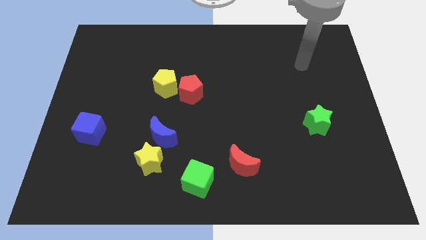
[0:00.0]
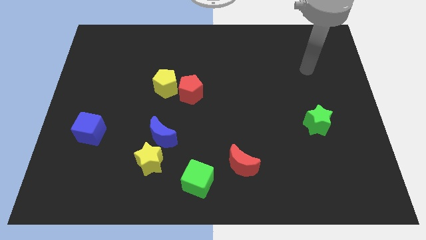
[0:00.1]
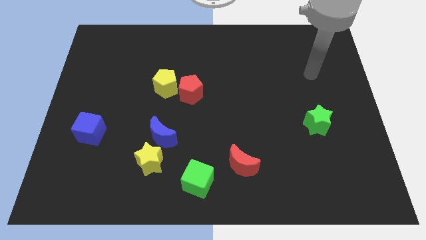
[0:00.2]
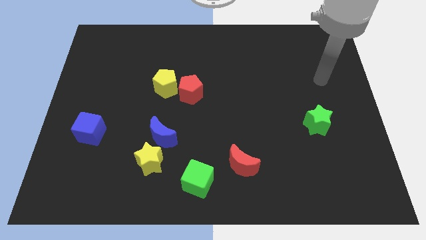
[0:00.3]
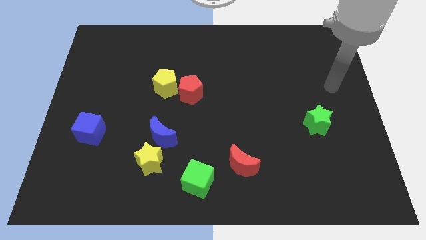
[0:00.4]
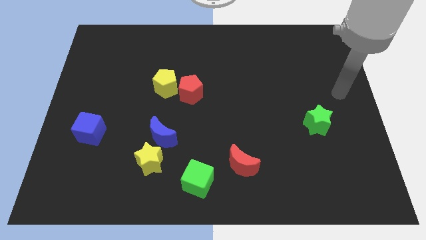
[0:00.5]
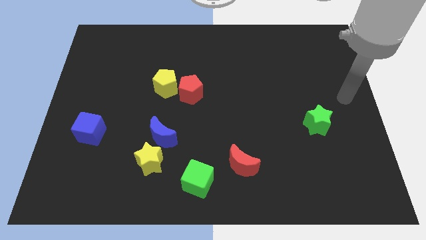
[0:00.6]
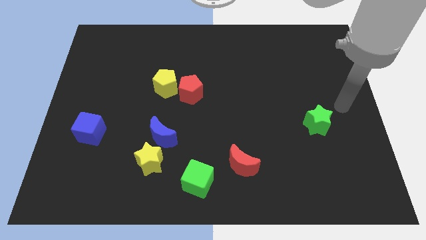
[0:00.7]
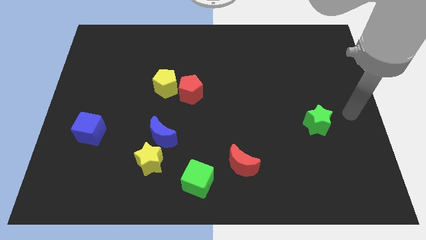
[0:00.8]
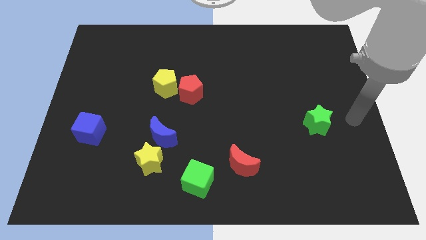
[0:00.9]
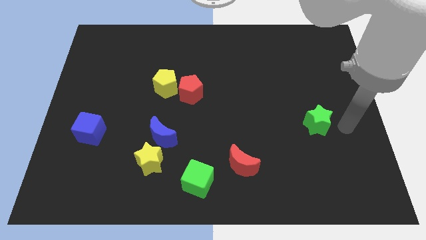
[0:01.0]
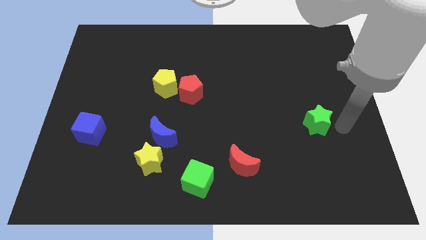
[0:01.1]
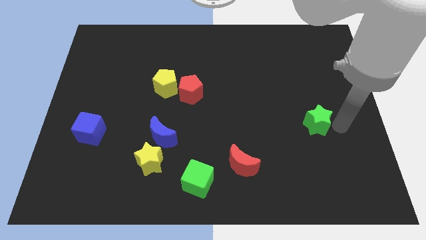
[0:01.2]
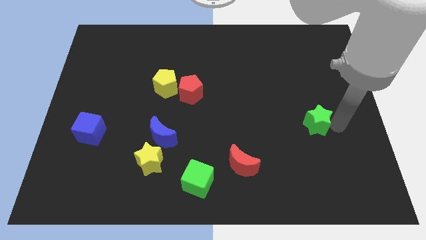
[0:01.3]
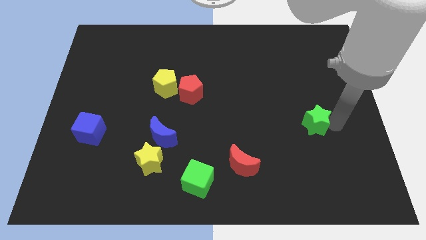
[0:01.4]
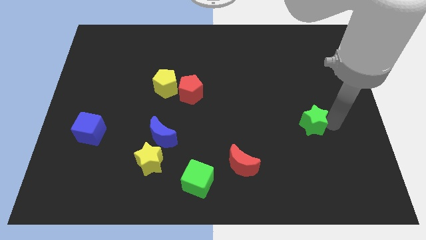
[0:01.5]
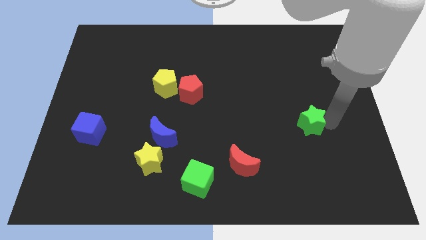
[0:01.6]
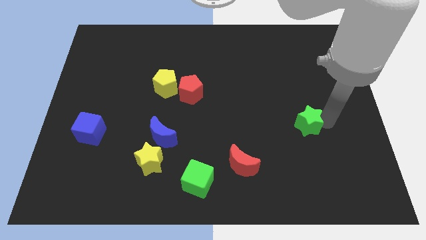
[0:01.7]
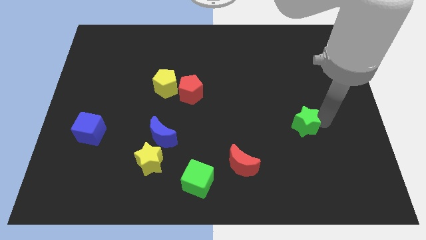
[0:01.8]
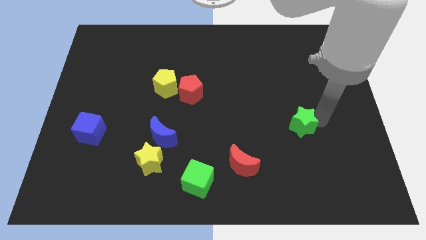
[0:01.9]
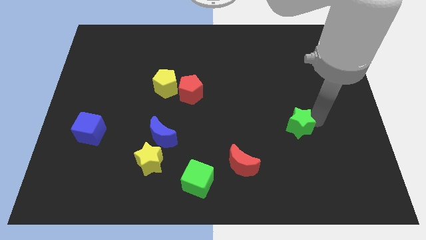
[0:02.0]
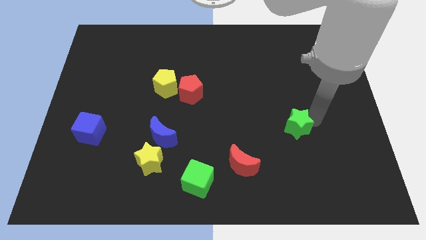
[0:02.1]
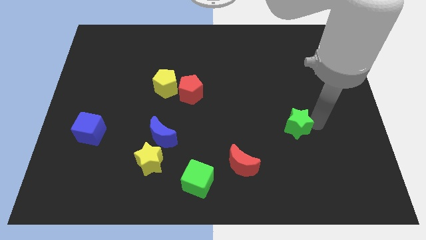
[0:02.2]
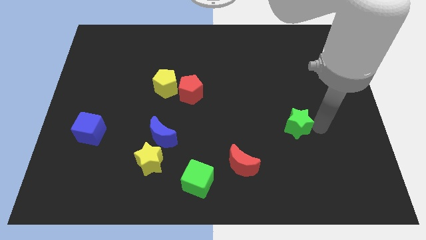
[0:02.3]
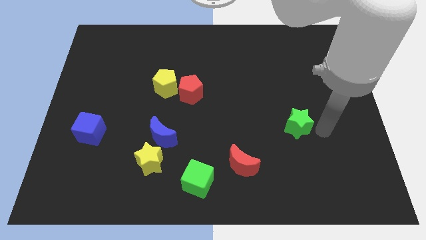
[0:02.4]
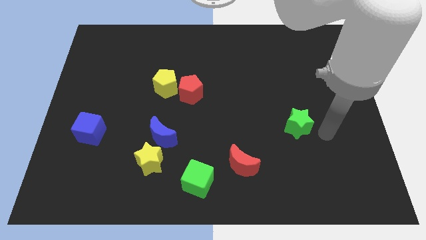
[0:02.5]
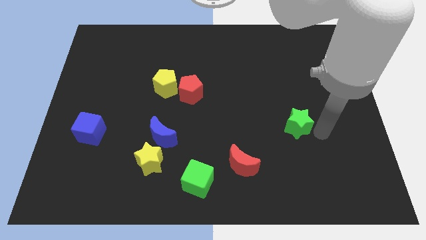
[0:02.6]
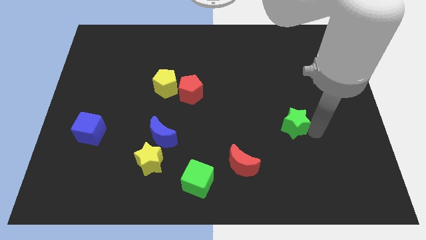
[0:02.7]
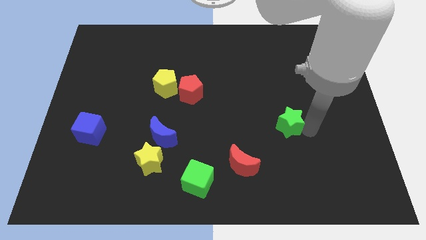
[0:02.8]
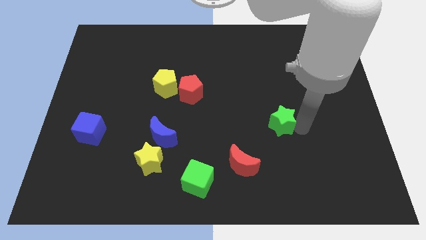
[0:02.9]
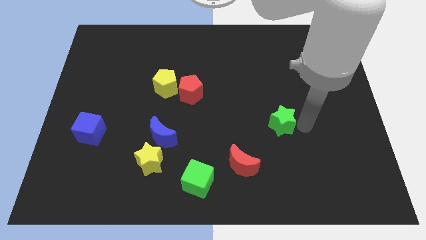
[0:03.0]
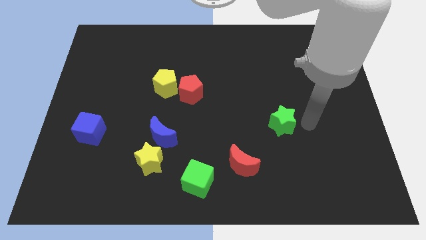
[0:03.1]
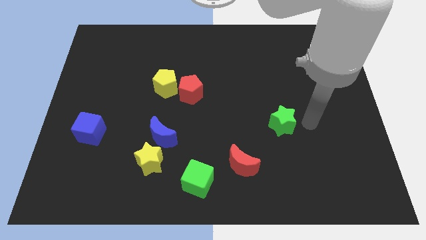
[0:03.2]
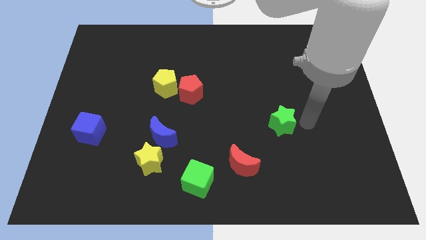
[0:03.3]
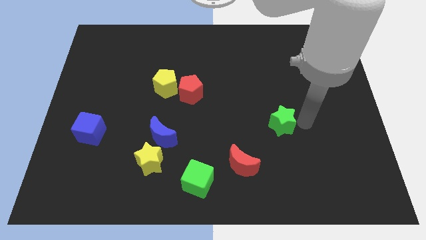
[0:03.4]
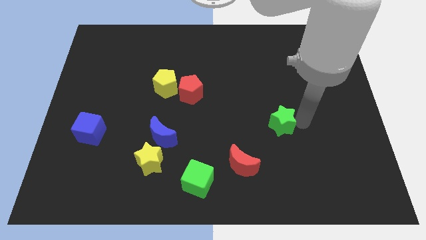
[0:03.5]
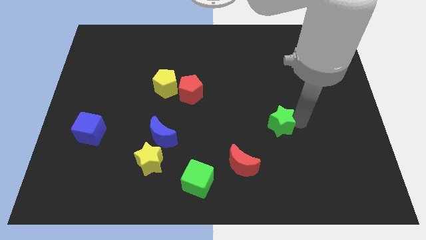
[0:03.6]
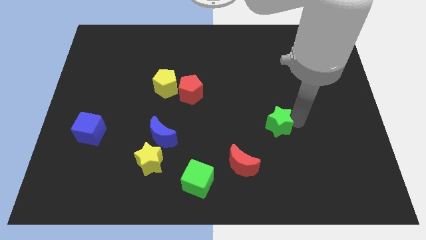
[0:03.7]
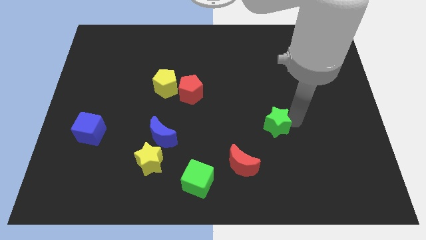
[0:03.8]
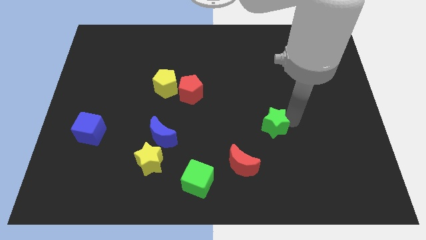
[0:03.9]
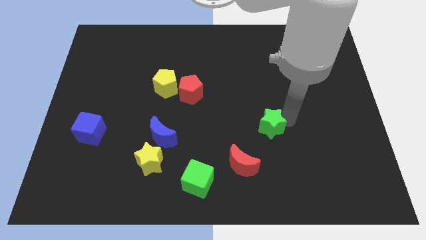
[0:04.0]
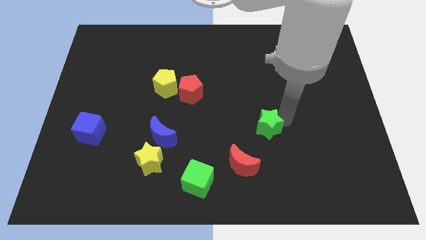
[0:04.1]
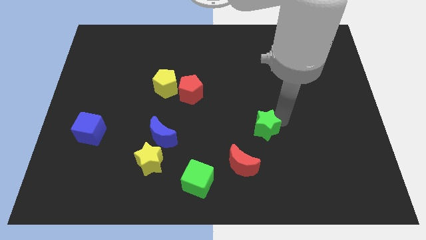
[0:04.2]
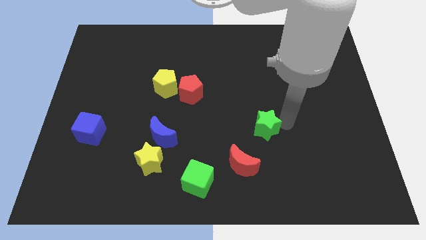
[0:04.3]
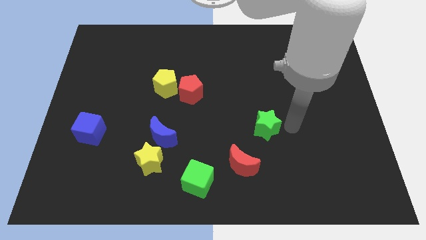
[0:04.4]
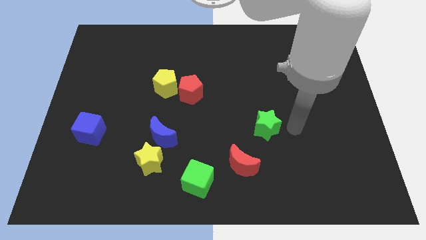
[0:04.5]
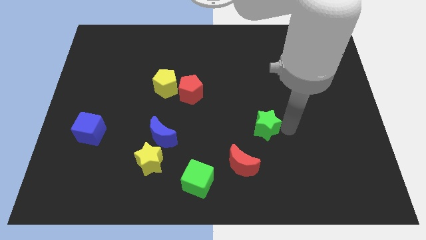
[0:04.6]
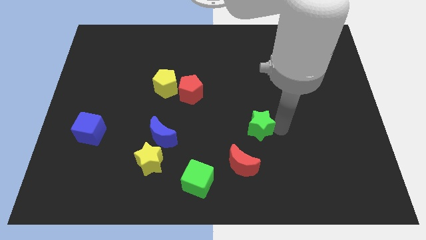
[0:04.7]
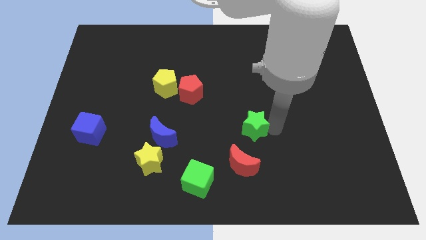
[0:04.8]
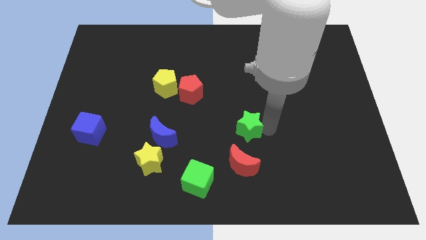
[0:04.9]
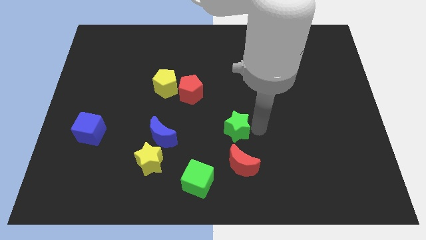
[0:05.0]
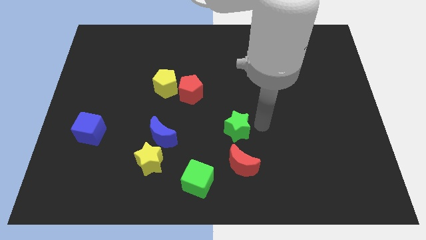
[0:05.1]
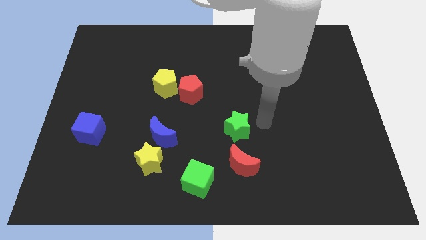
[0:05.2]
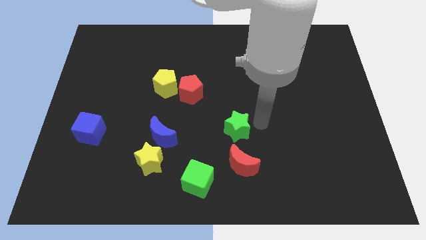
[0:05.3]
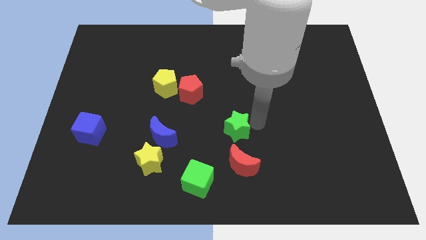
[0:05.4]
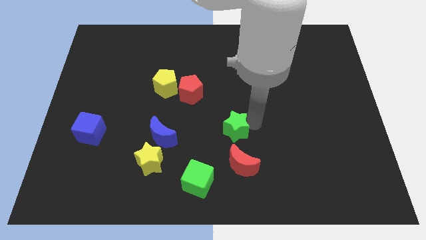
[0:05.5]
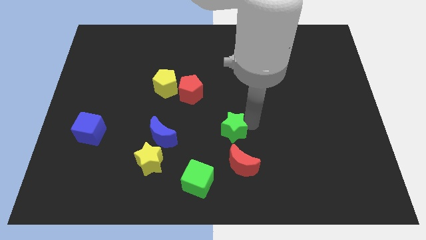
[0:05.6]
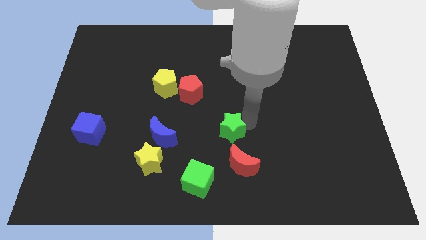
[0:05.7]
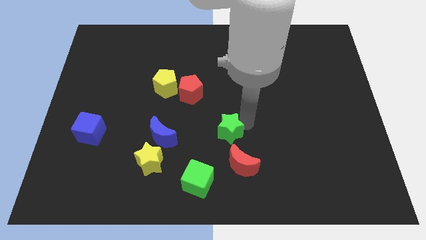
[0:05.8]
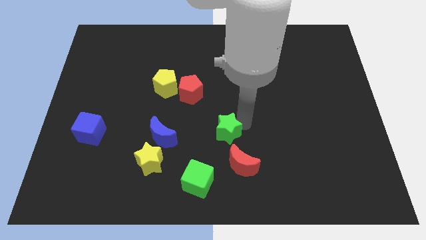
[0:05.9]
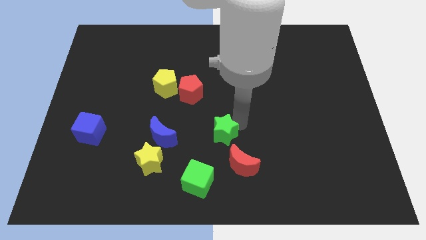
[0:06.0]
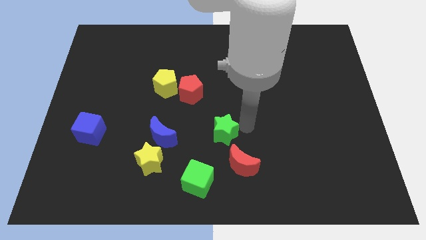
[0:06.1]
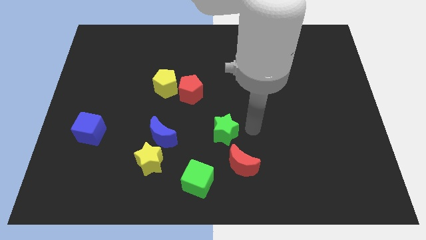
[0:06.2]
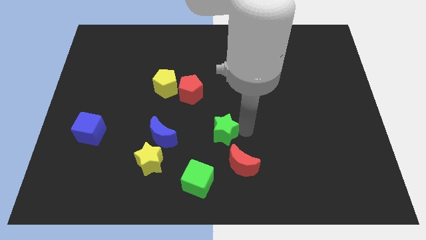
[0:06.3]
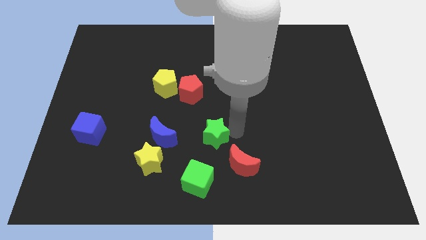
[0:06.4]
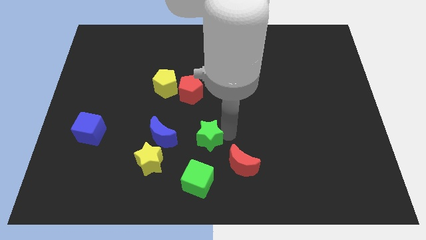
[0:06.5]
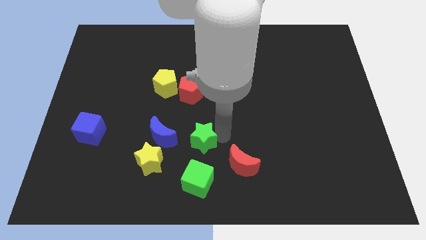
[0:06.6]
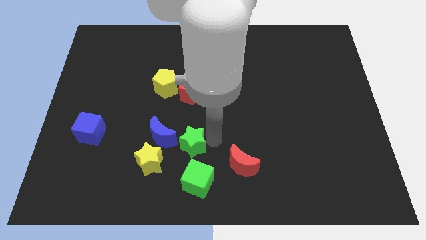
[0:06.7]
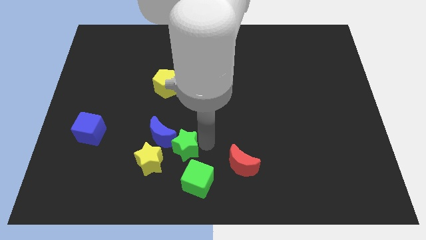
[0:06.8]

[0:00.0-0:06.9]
slide the green star to the blue moon

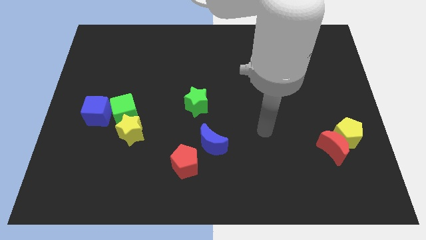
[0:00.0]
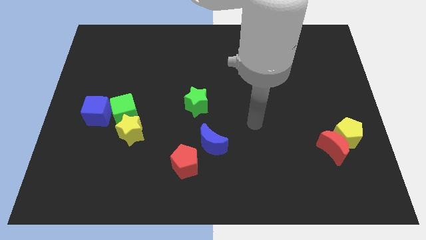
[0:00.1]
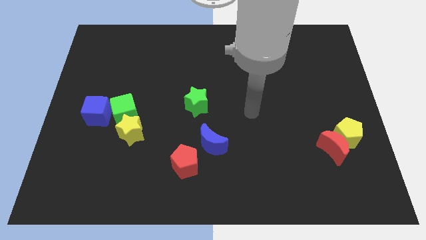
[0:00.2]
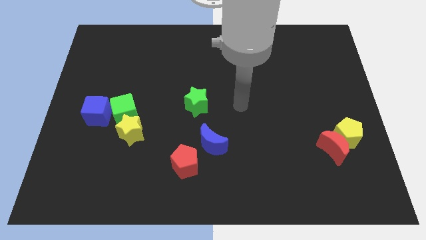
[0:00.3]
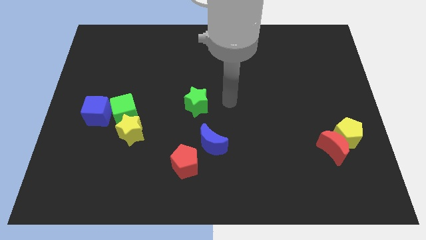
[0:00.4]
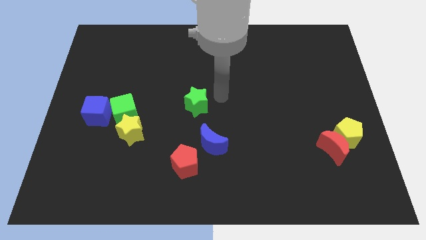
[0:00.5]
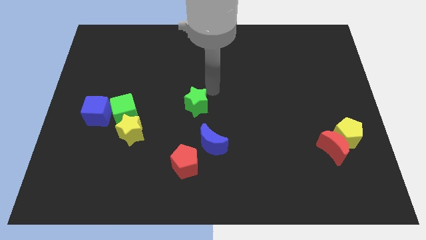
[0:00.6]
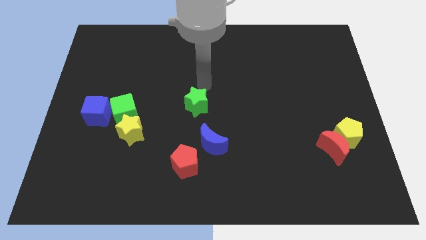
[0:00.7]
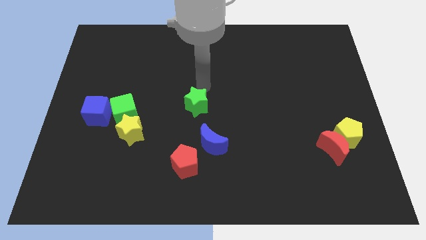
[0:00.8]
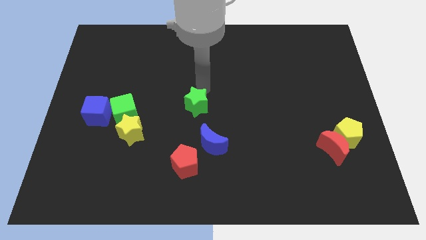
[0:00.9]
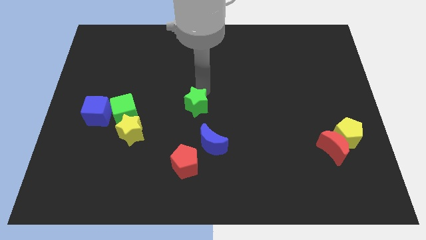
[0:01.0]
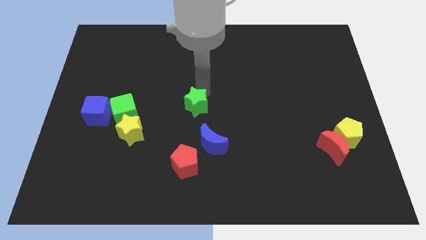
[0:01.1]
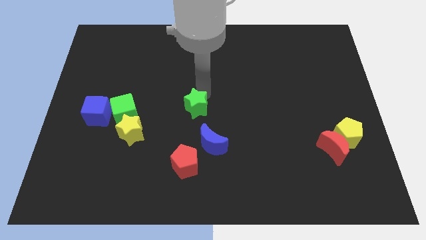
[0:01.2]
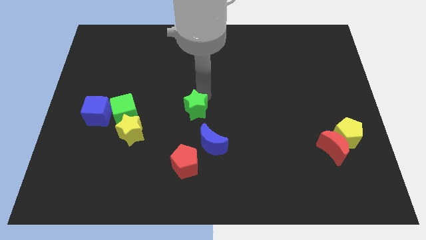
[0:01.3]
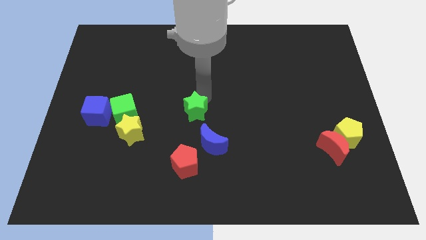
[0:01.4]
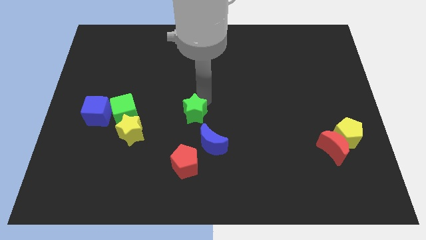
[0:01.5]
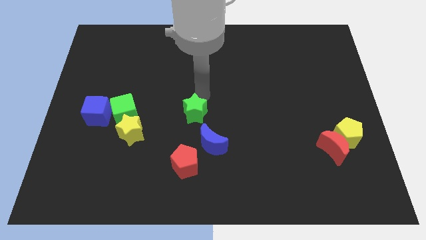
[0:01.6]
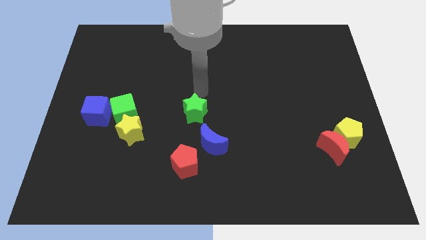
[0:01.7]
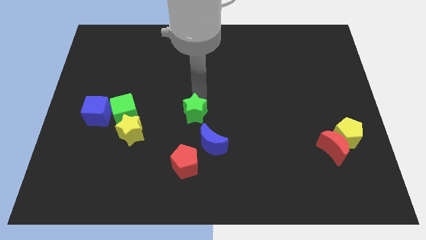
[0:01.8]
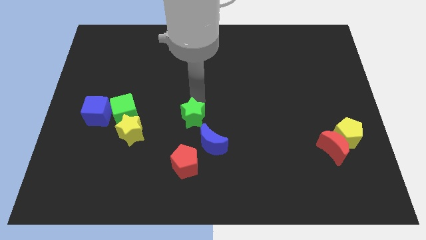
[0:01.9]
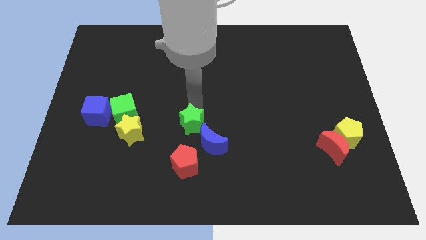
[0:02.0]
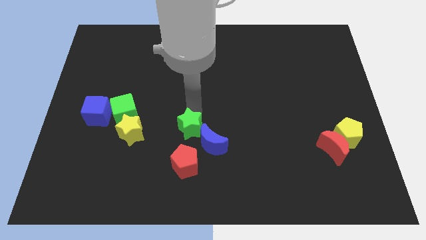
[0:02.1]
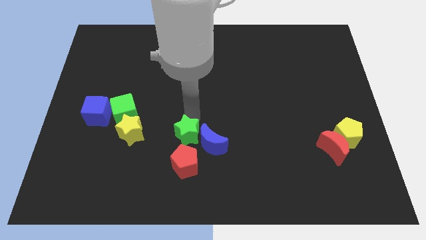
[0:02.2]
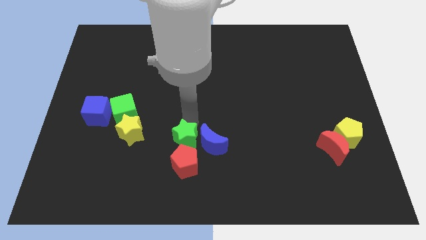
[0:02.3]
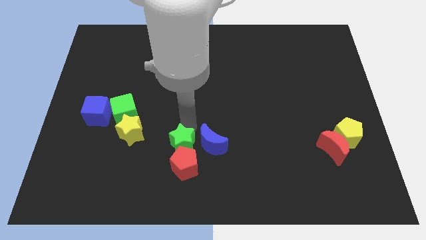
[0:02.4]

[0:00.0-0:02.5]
put the green star to the red pentagon
